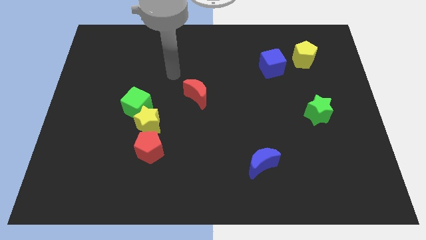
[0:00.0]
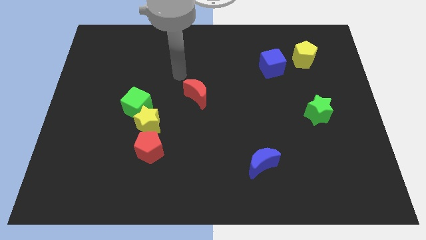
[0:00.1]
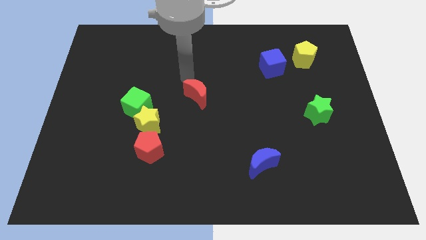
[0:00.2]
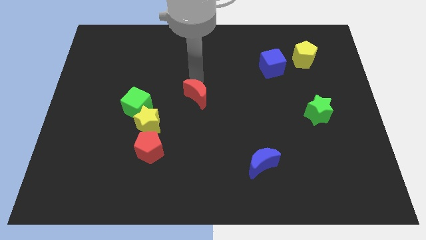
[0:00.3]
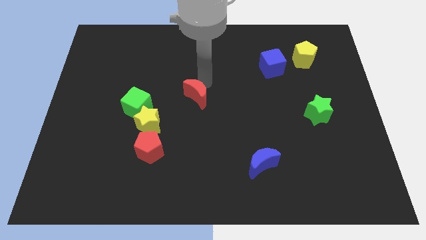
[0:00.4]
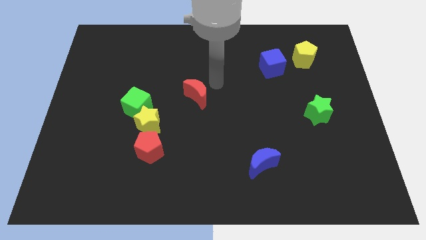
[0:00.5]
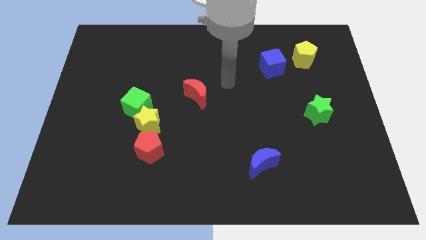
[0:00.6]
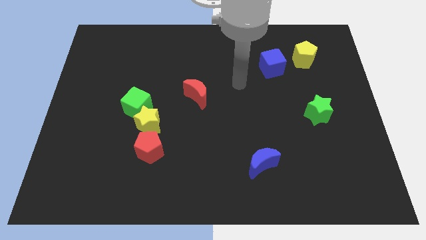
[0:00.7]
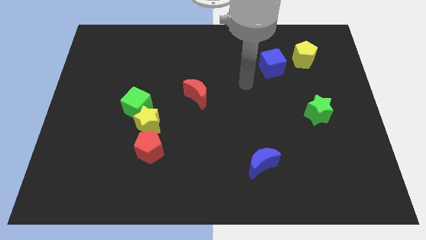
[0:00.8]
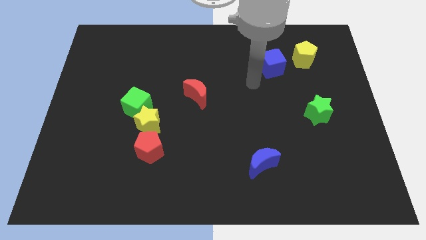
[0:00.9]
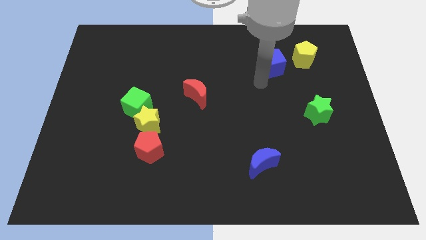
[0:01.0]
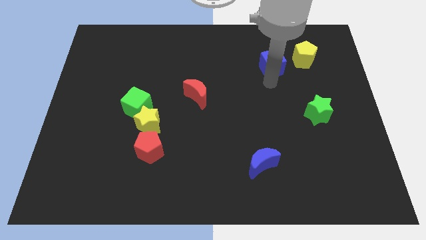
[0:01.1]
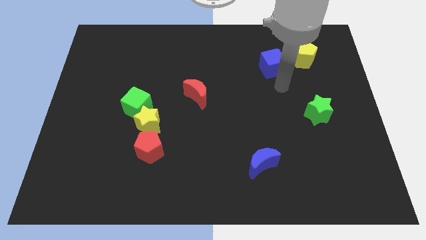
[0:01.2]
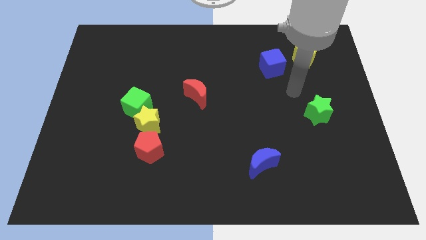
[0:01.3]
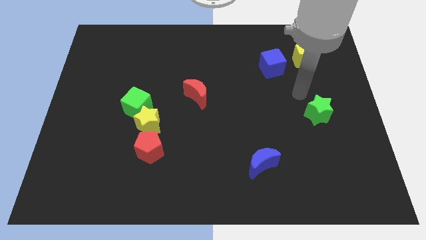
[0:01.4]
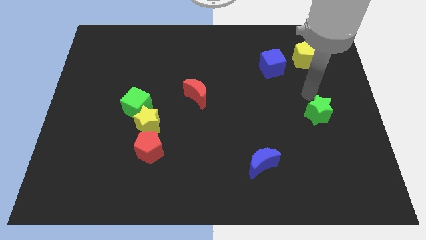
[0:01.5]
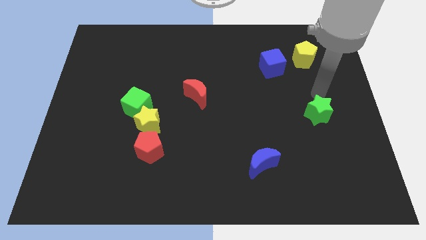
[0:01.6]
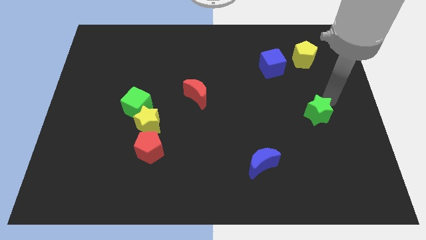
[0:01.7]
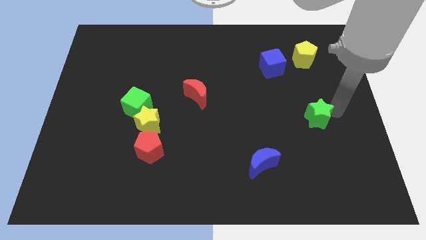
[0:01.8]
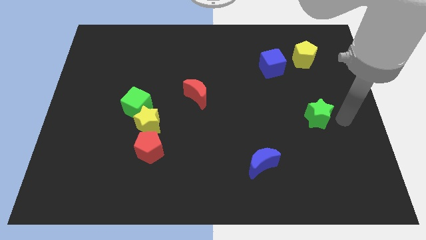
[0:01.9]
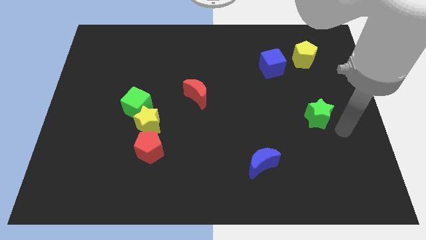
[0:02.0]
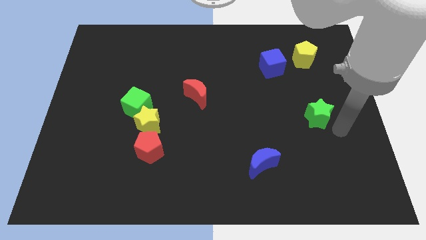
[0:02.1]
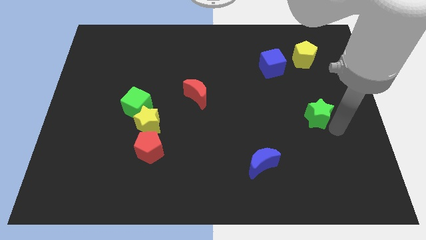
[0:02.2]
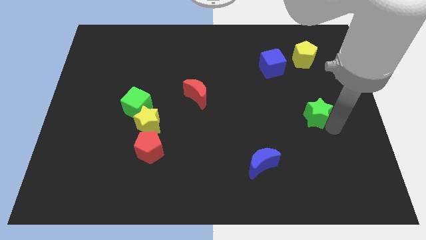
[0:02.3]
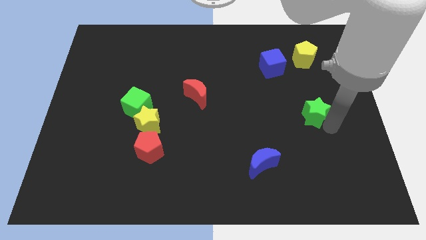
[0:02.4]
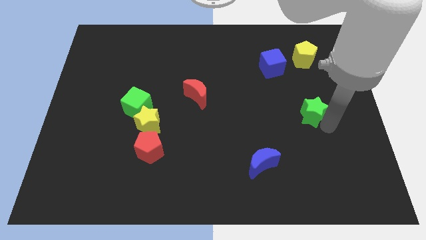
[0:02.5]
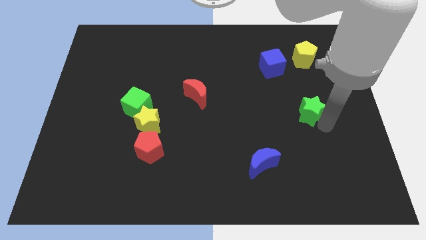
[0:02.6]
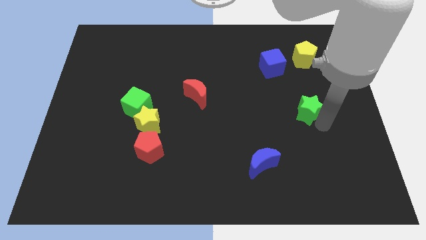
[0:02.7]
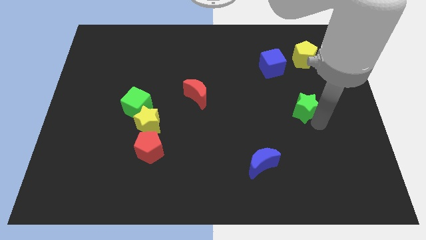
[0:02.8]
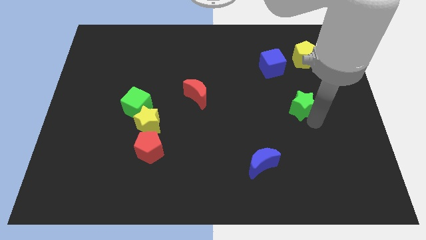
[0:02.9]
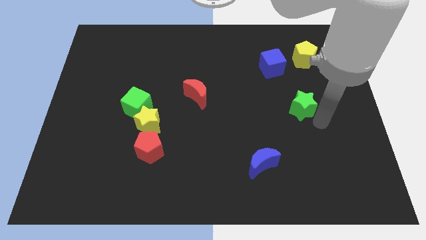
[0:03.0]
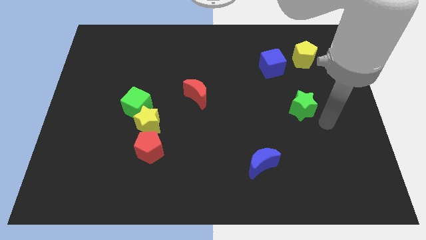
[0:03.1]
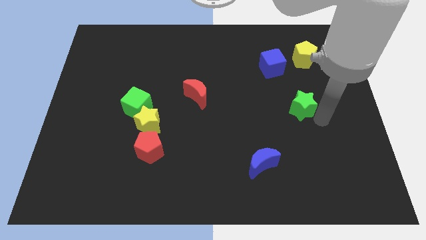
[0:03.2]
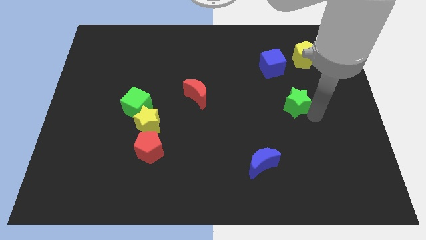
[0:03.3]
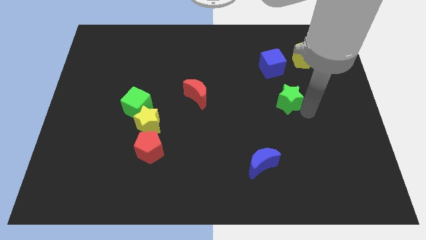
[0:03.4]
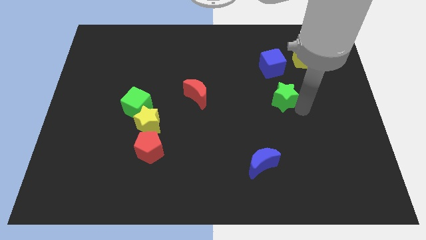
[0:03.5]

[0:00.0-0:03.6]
push the green star a little up and left

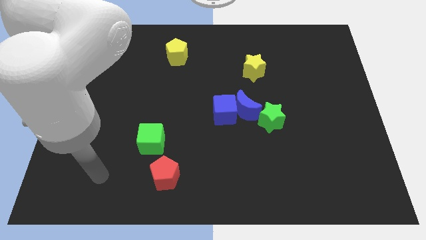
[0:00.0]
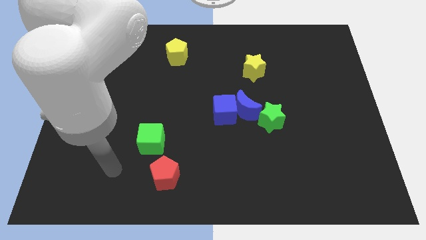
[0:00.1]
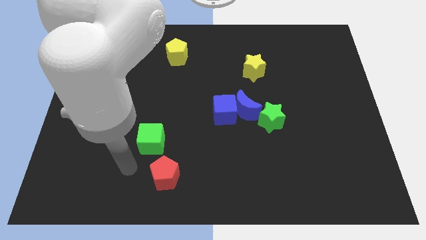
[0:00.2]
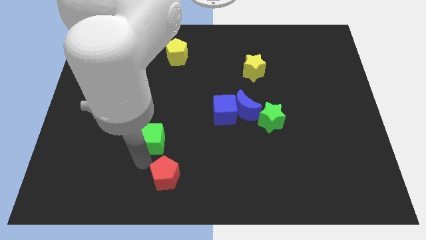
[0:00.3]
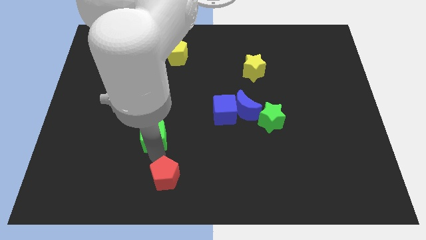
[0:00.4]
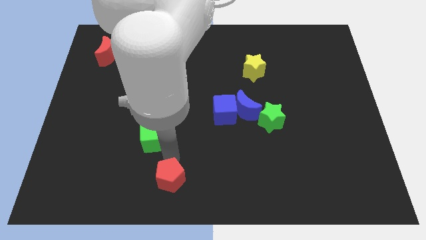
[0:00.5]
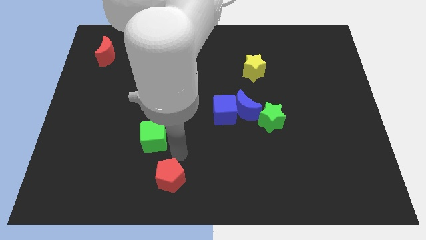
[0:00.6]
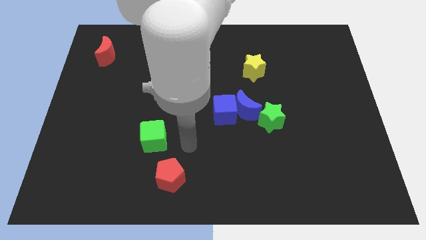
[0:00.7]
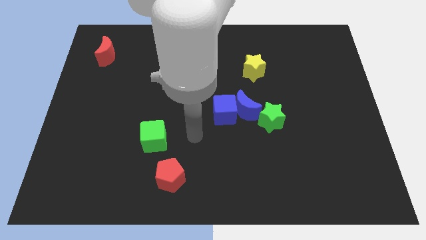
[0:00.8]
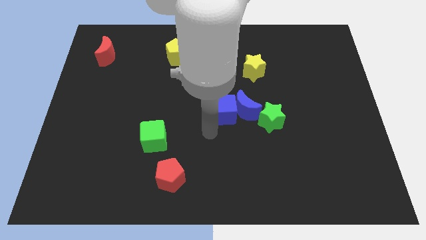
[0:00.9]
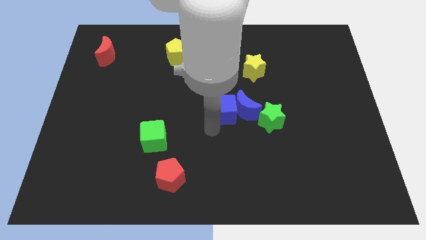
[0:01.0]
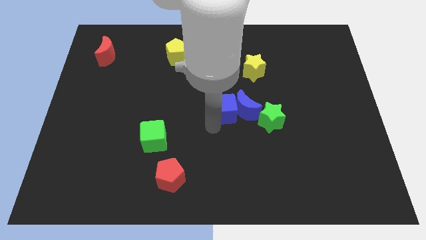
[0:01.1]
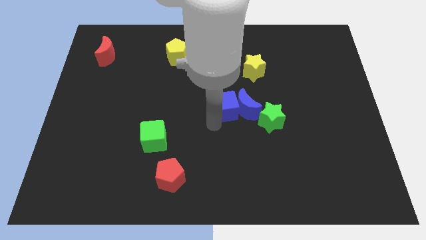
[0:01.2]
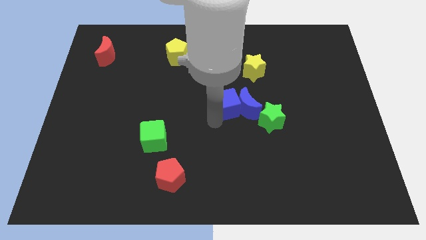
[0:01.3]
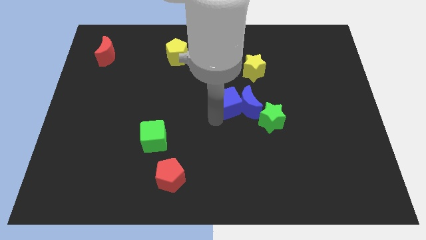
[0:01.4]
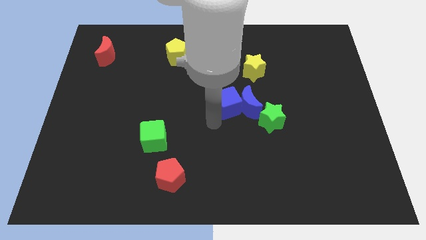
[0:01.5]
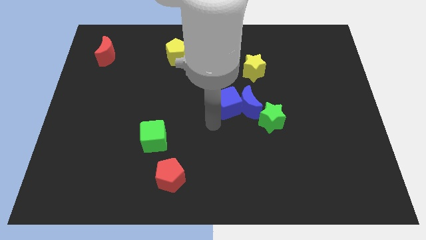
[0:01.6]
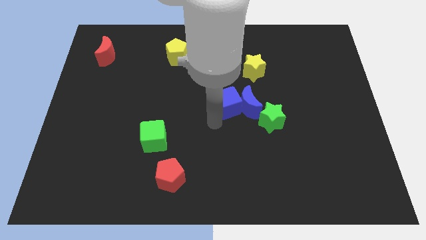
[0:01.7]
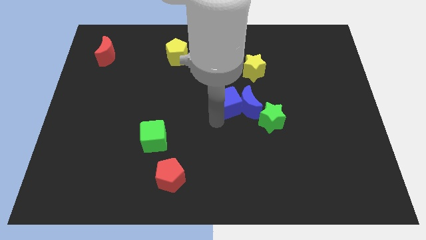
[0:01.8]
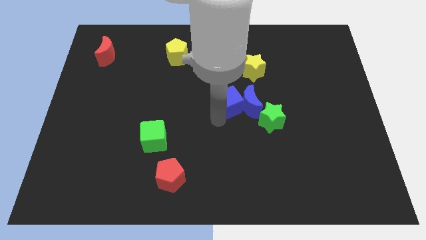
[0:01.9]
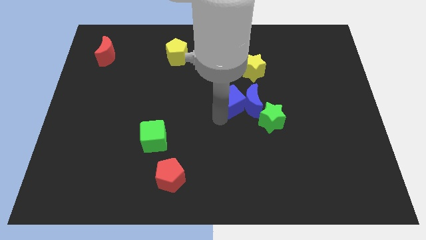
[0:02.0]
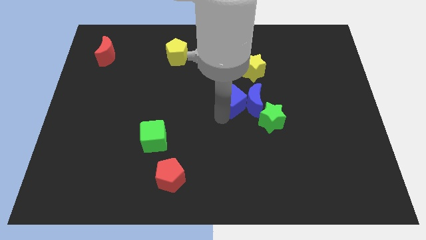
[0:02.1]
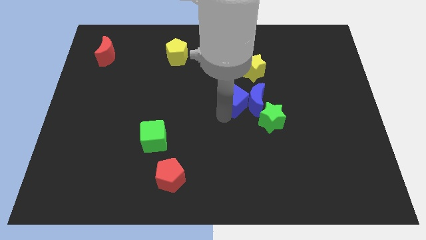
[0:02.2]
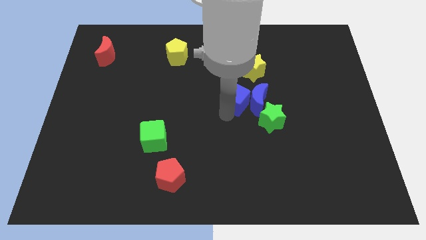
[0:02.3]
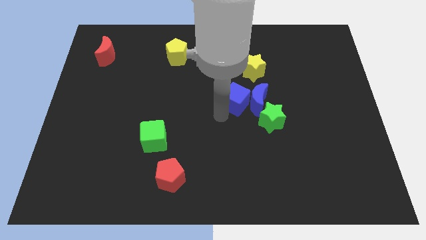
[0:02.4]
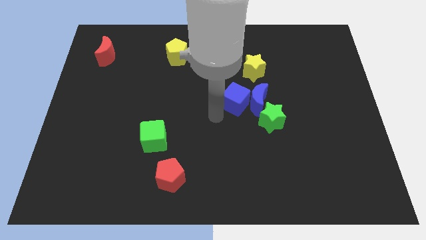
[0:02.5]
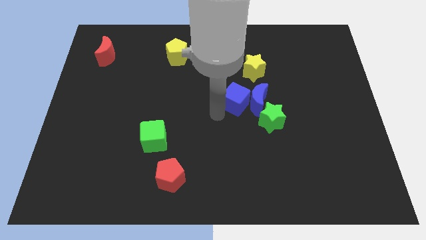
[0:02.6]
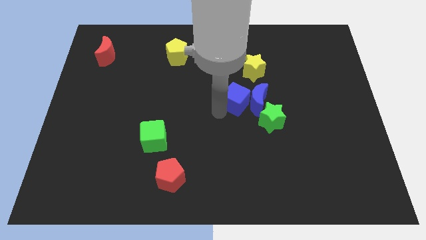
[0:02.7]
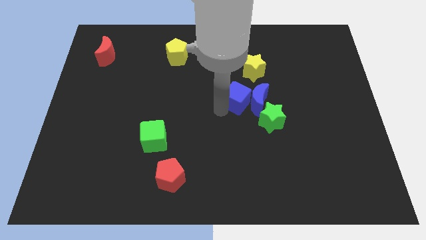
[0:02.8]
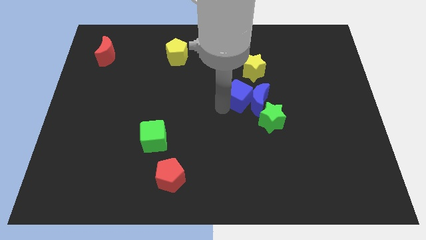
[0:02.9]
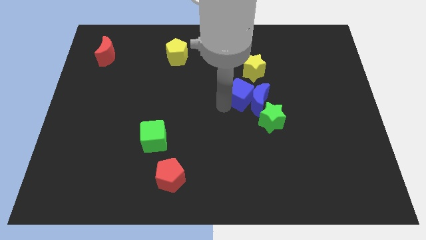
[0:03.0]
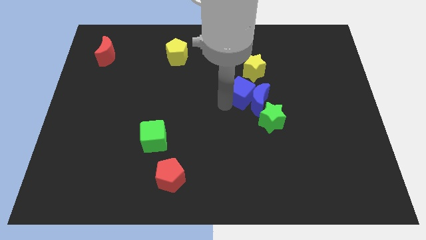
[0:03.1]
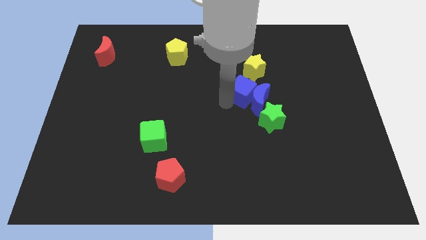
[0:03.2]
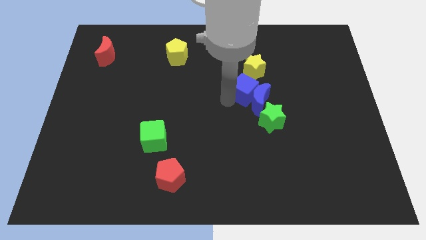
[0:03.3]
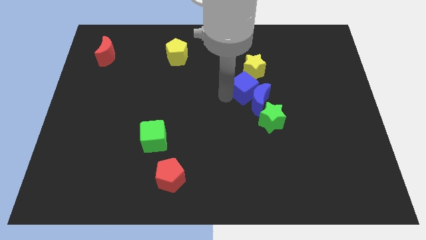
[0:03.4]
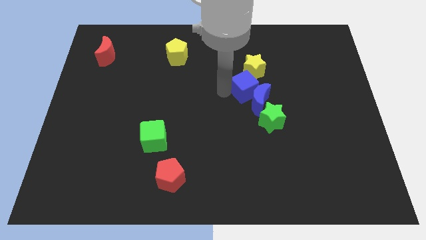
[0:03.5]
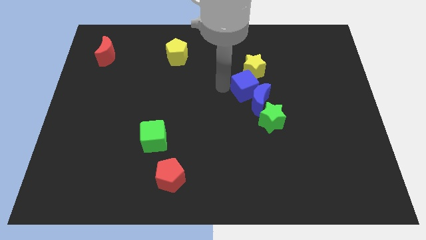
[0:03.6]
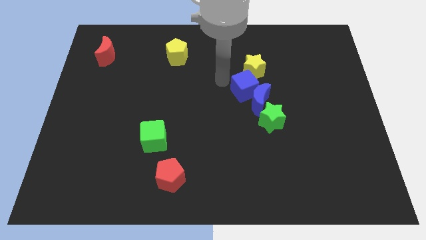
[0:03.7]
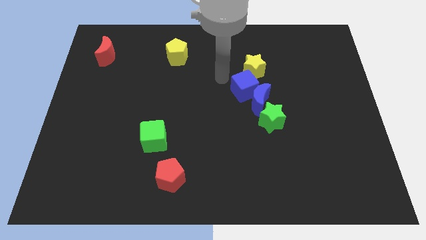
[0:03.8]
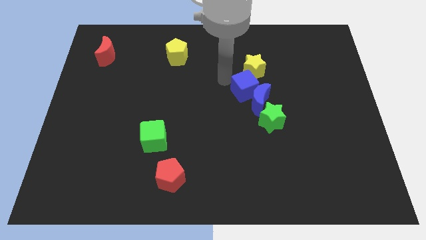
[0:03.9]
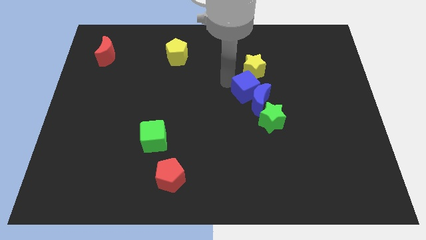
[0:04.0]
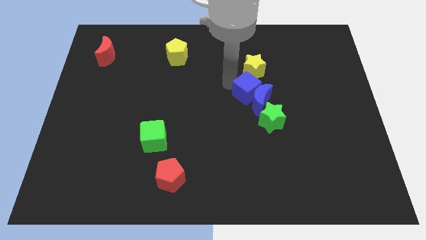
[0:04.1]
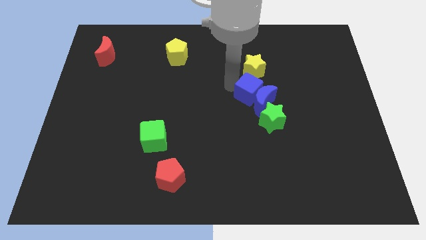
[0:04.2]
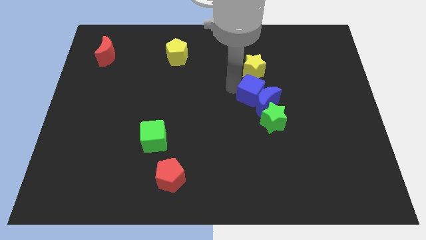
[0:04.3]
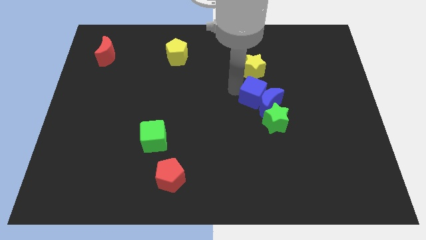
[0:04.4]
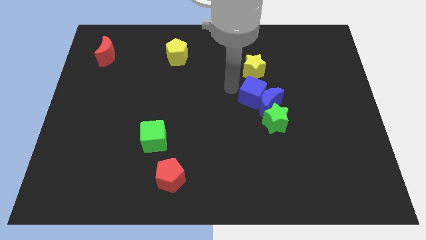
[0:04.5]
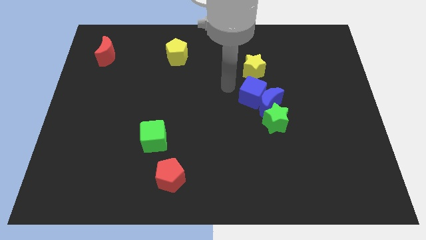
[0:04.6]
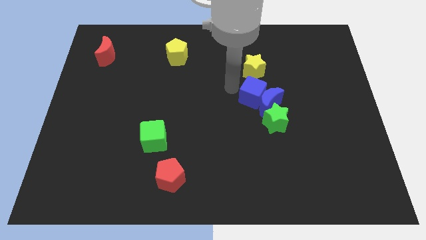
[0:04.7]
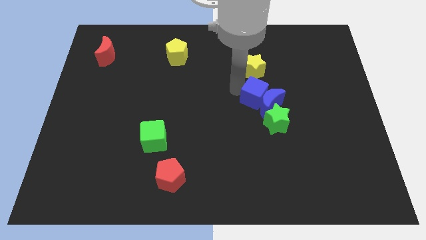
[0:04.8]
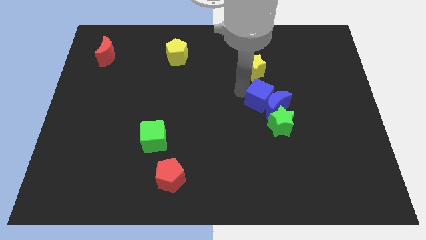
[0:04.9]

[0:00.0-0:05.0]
slightly push the blue cube to the right
